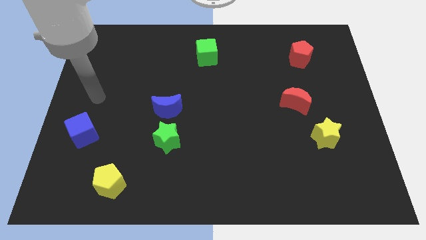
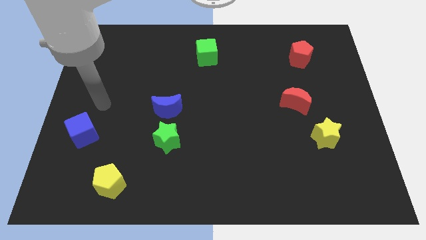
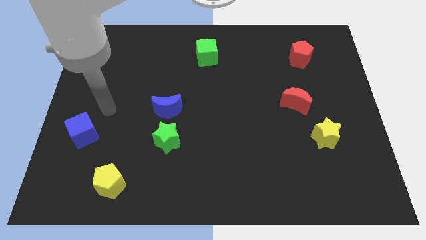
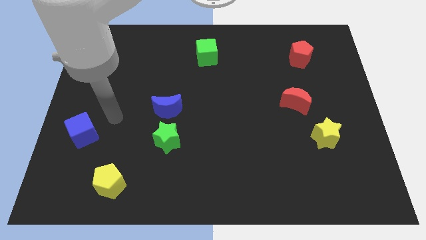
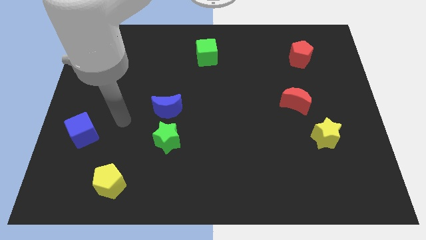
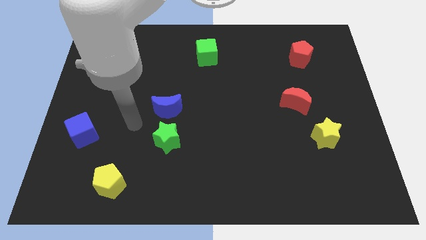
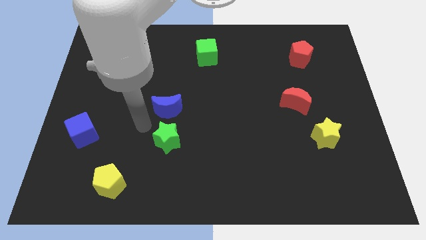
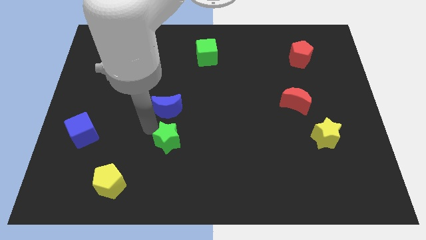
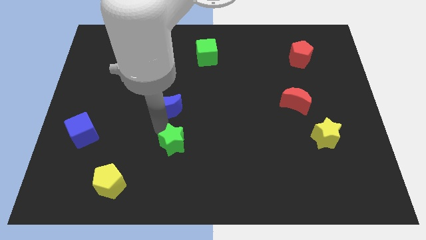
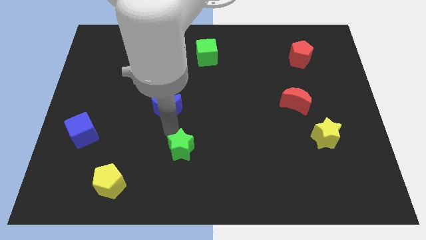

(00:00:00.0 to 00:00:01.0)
move the blue moon away from the green star

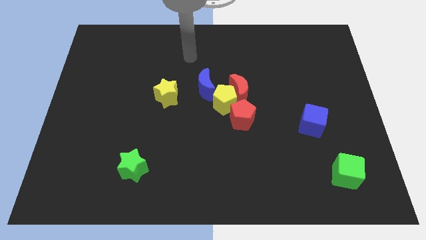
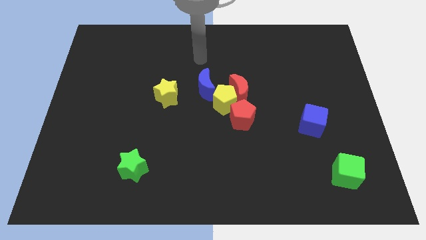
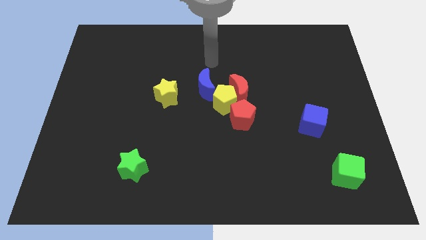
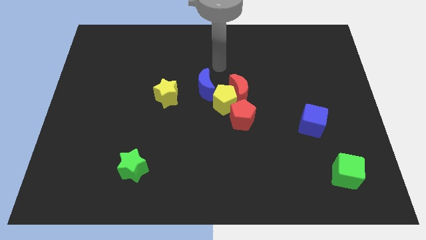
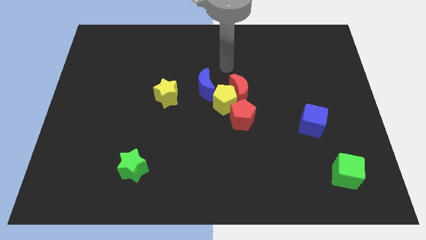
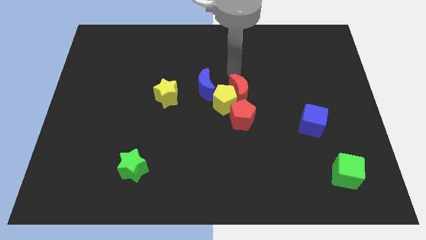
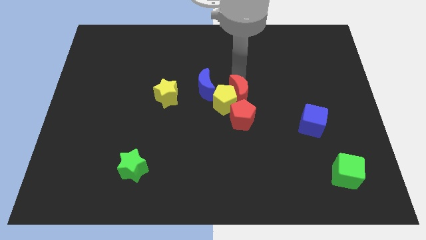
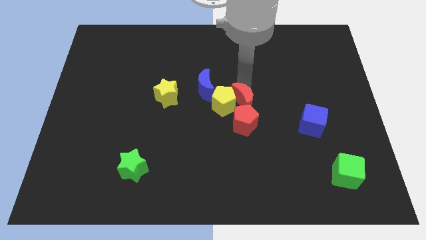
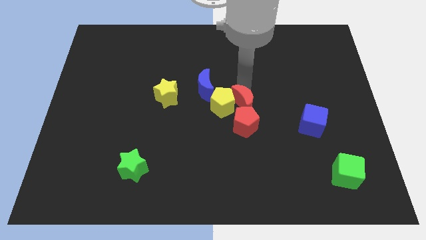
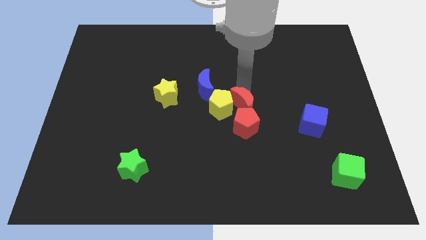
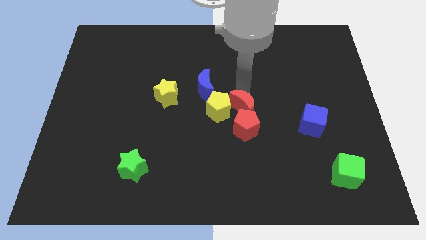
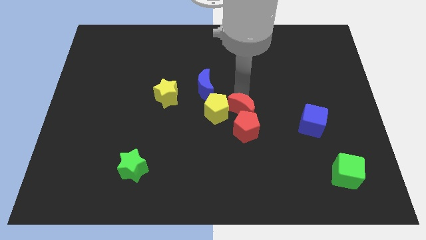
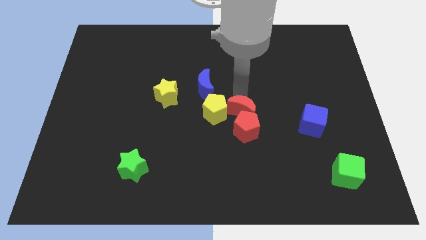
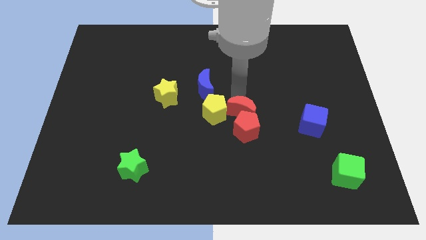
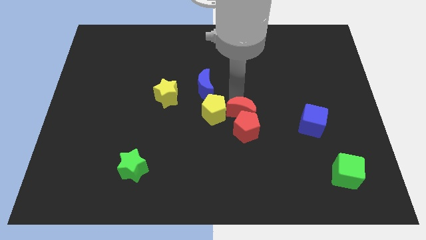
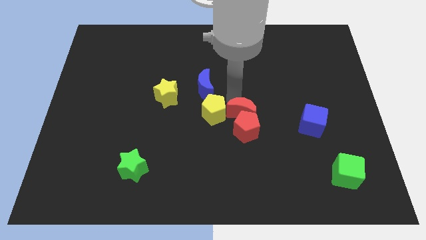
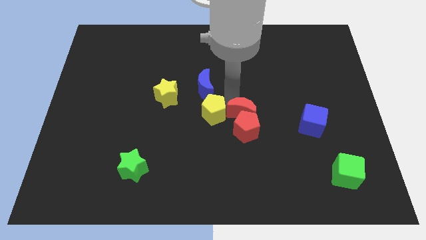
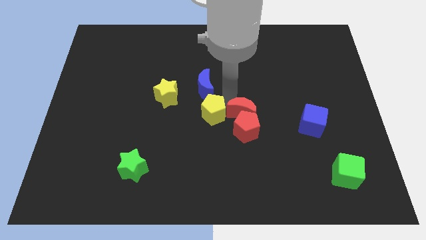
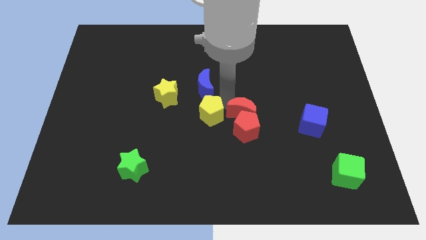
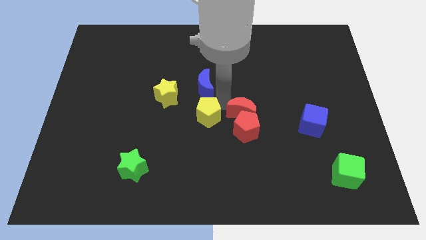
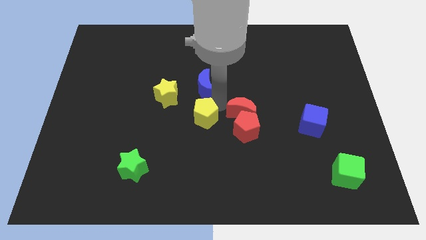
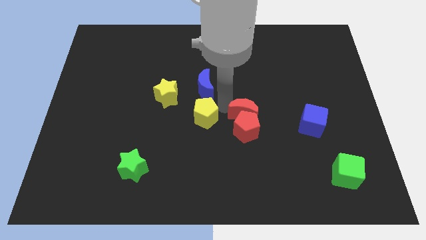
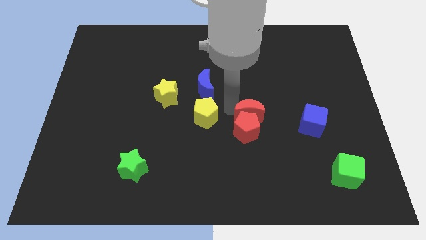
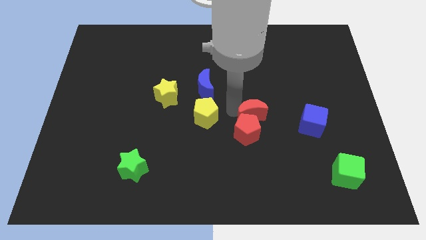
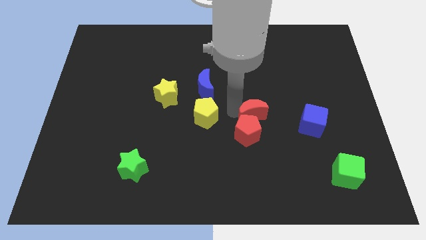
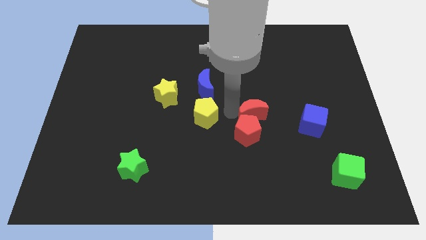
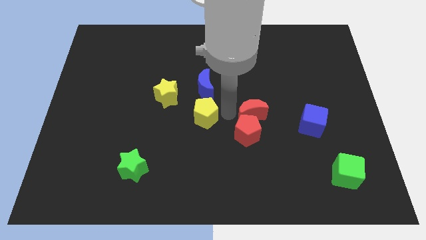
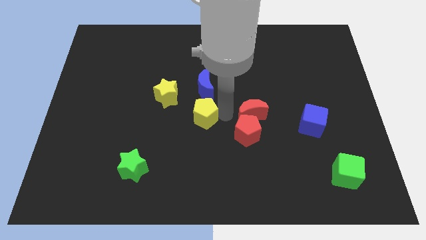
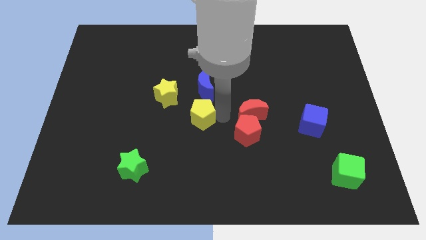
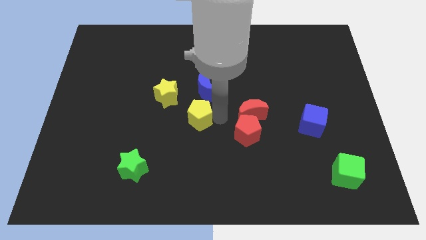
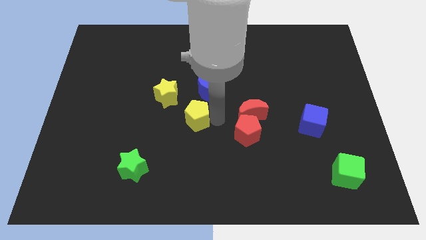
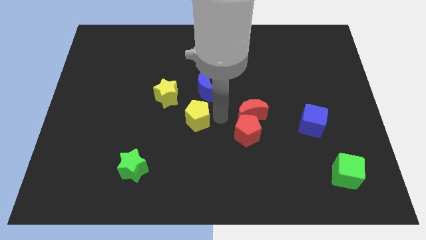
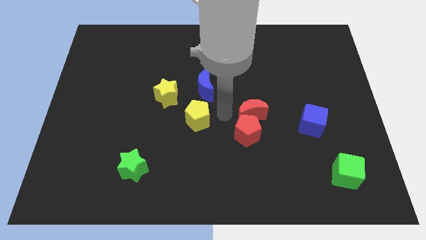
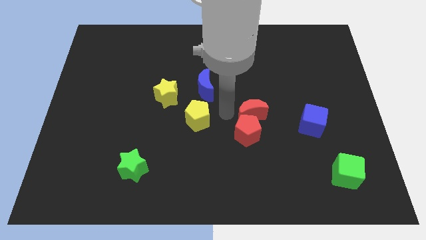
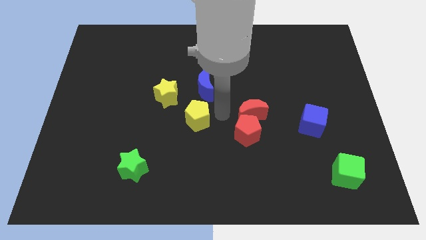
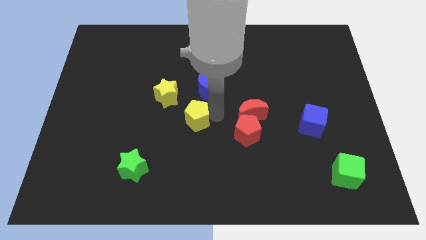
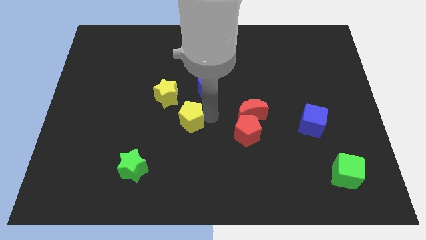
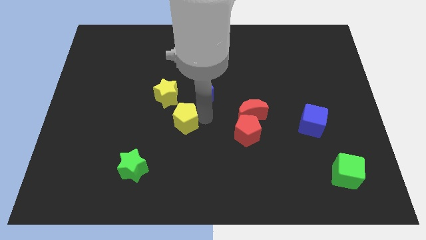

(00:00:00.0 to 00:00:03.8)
pull the yellow pentagon apart from the red moon, red pentagon, and blue moon

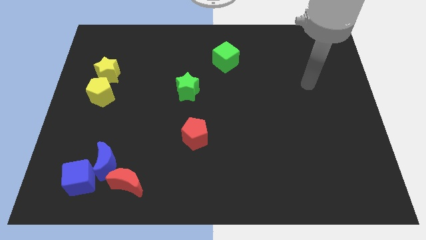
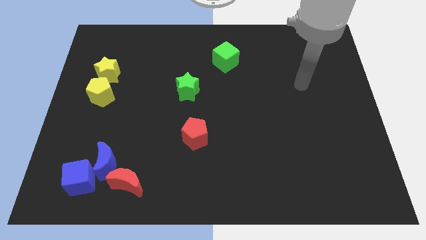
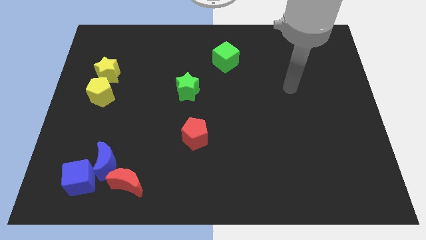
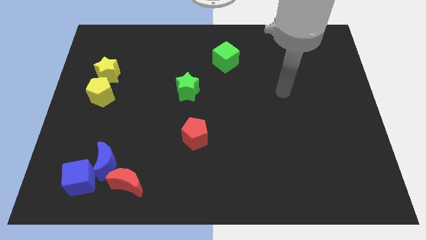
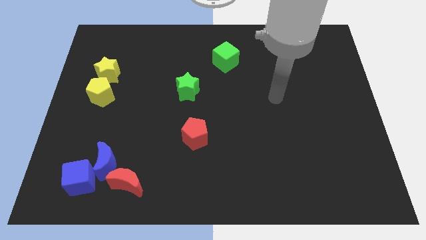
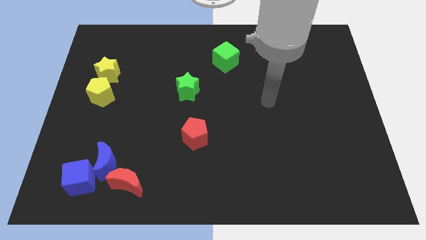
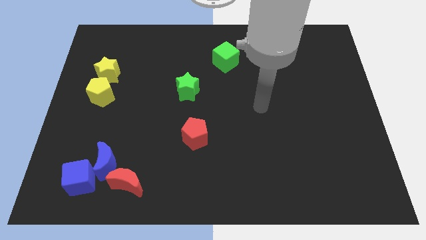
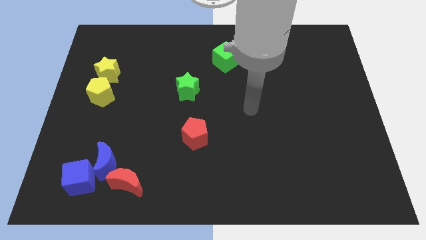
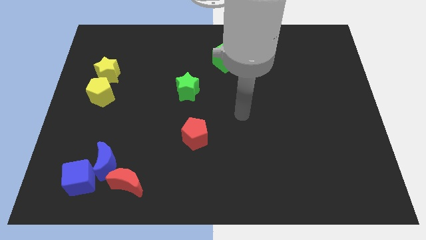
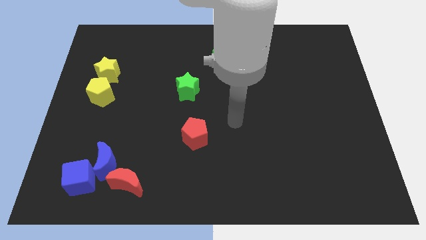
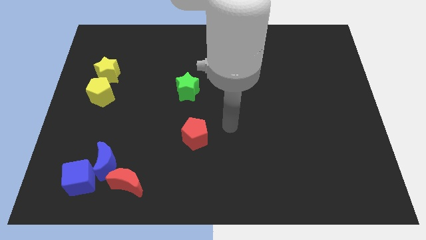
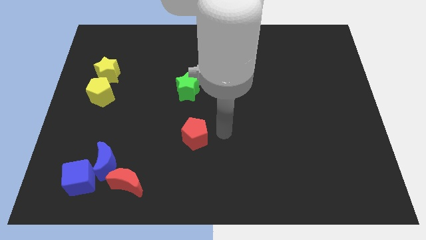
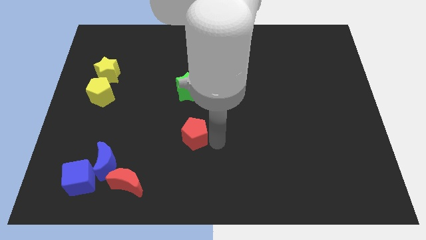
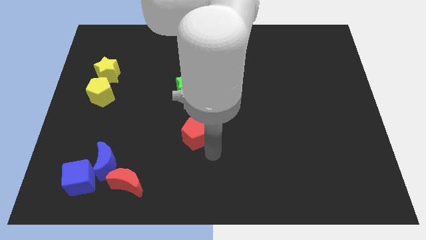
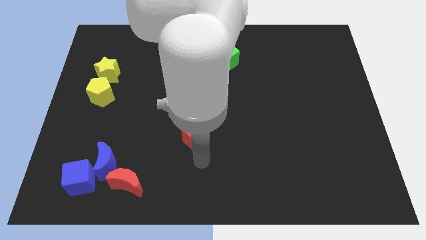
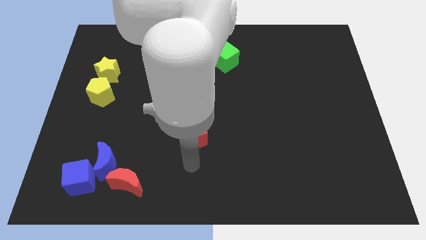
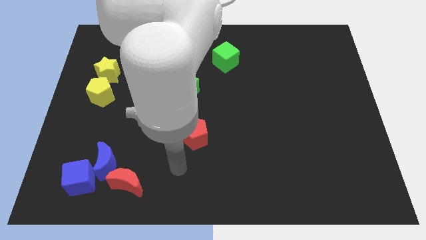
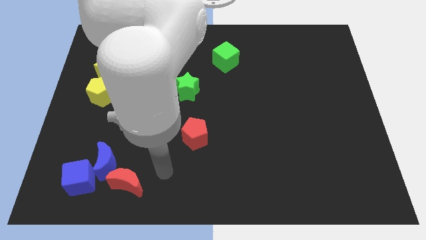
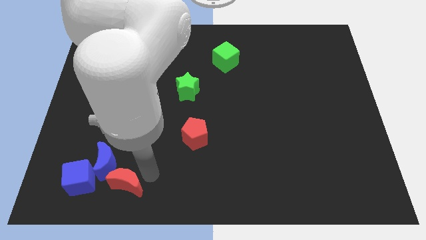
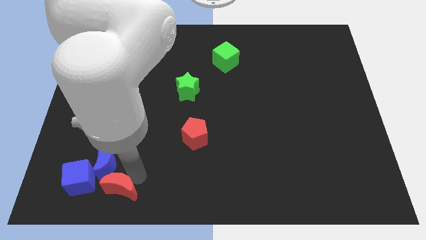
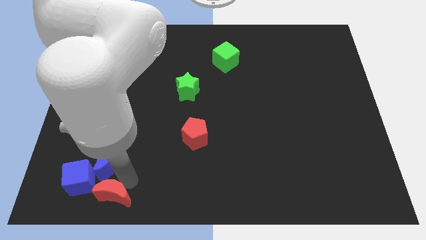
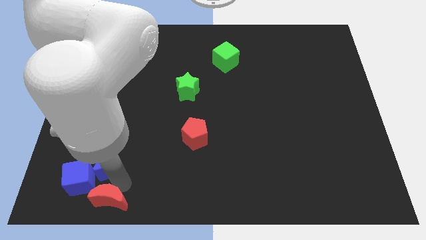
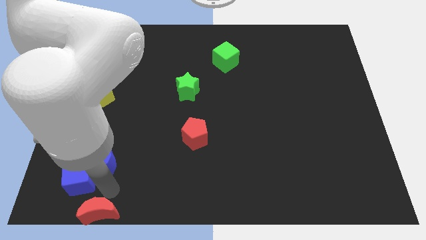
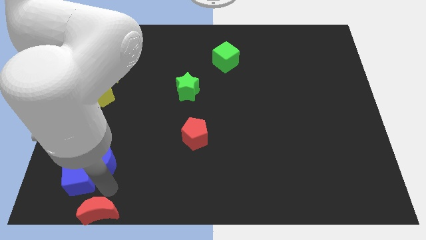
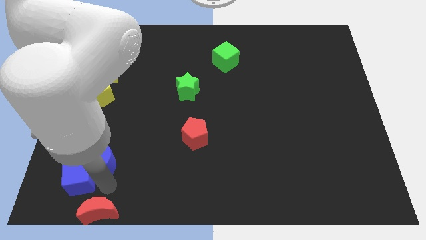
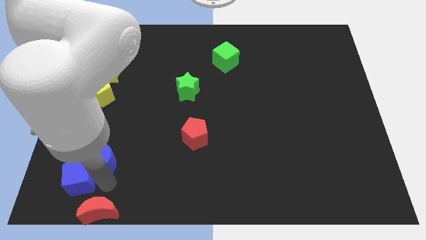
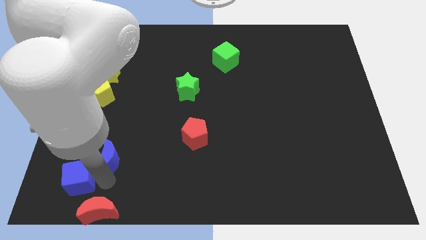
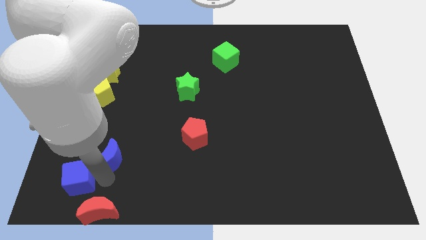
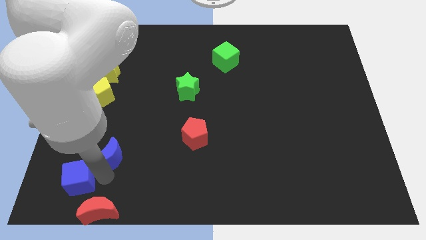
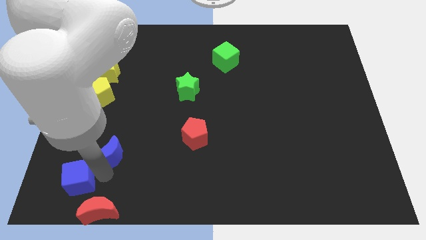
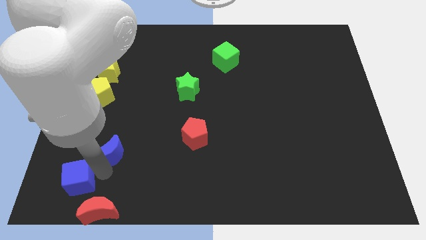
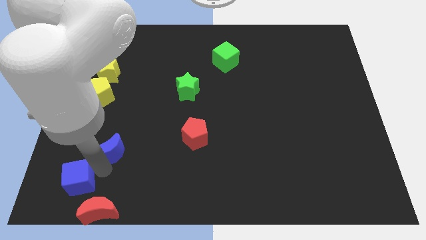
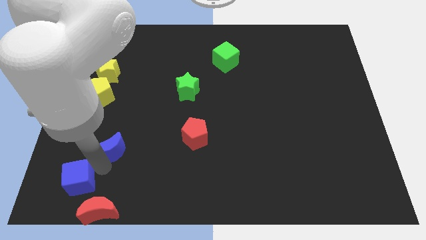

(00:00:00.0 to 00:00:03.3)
separate the blue moon from the blue cube and red moon

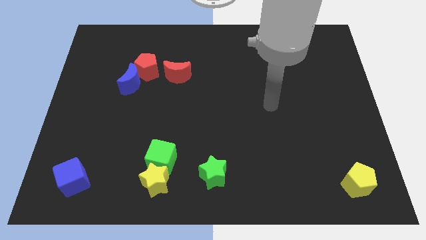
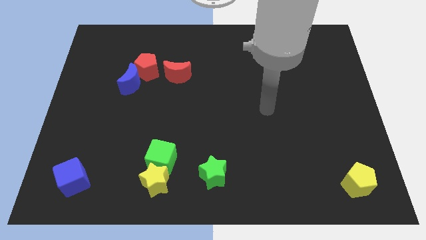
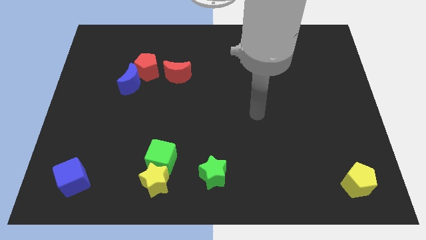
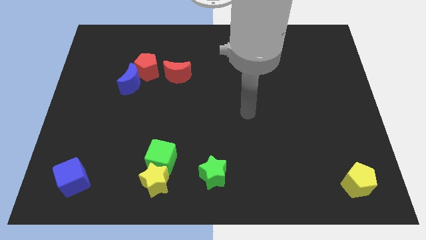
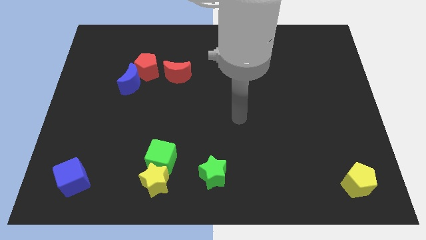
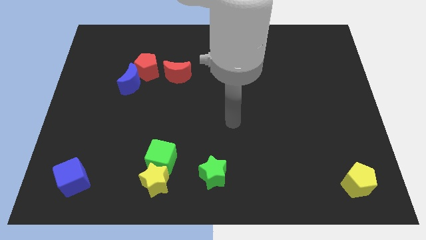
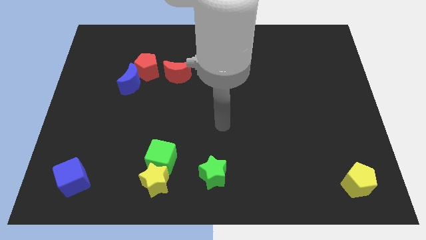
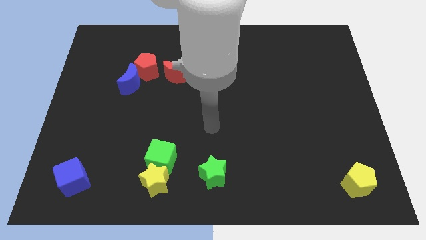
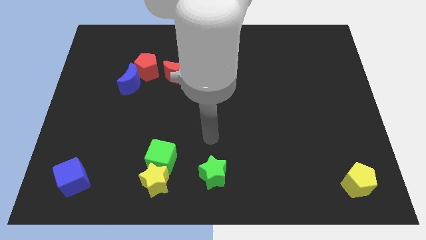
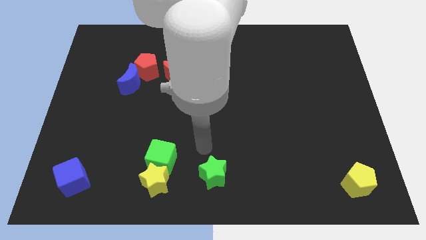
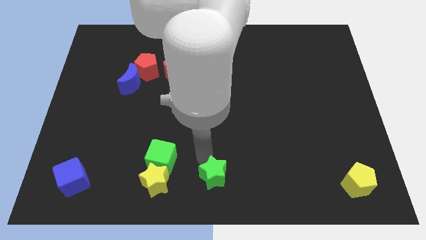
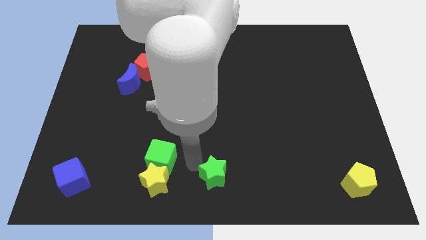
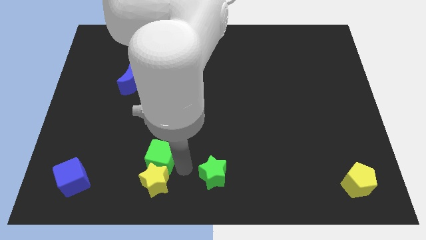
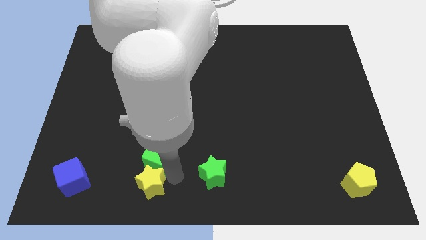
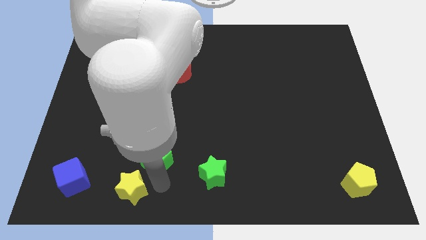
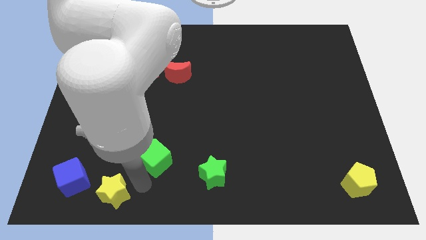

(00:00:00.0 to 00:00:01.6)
move the green cube away from the yellow star
